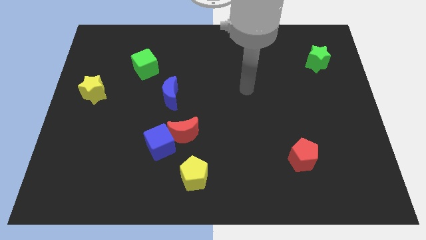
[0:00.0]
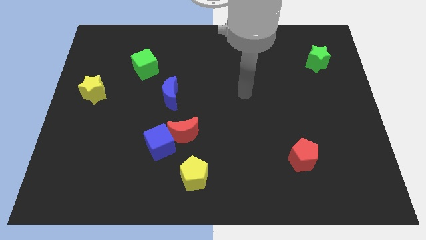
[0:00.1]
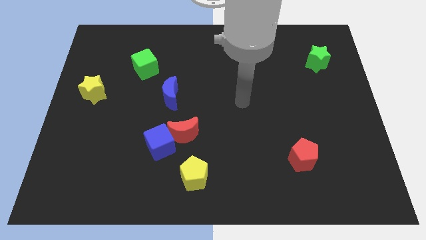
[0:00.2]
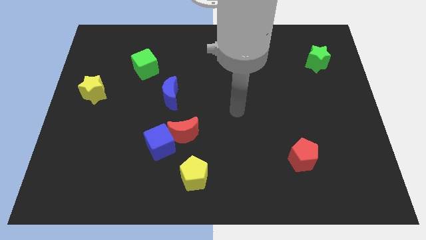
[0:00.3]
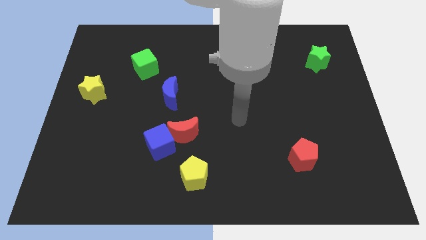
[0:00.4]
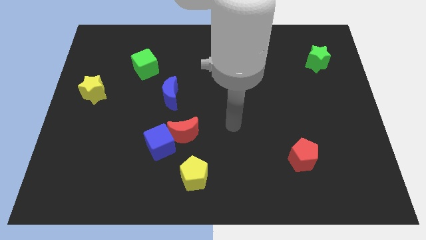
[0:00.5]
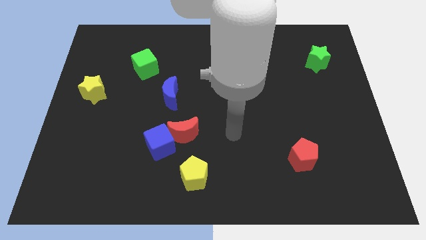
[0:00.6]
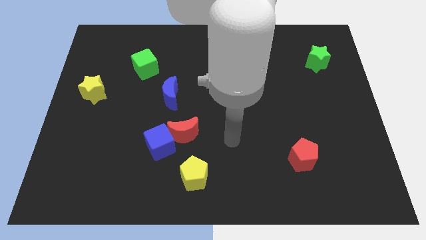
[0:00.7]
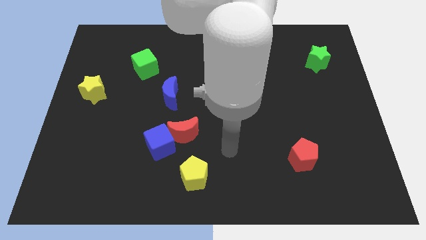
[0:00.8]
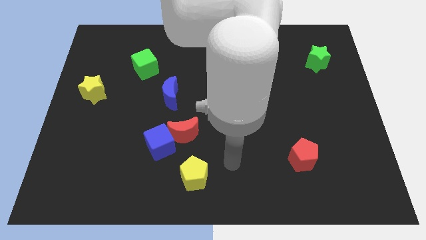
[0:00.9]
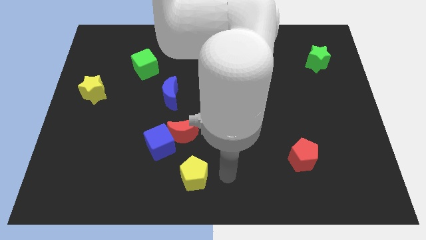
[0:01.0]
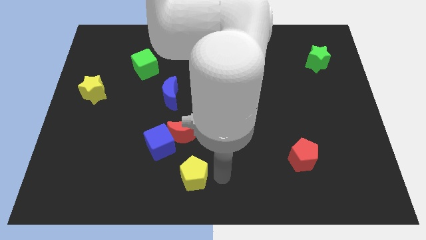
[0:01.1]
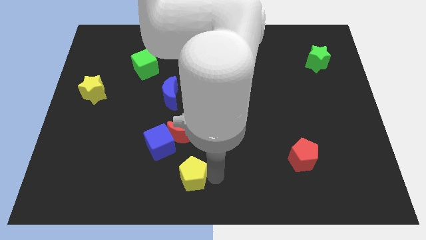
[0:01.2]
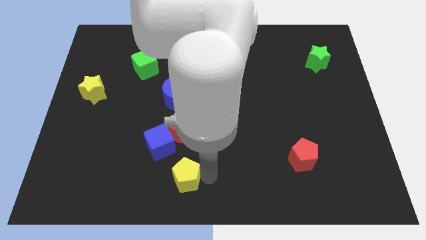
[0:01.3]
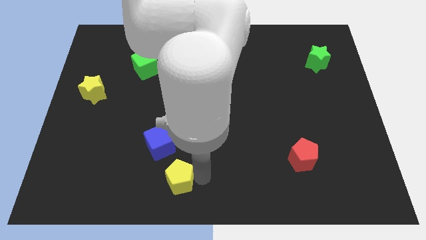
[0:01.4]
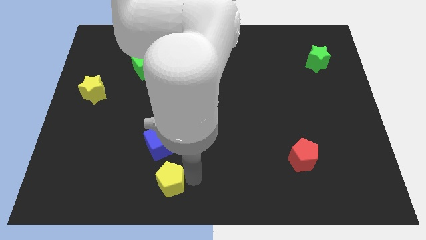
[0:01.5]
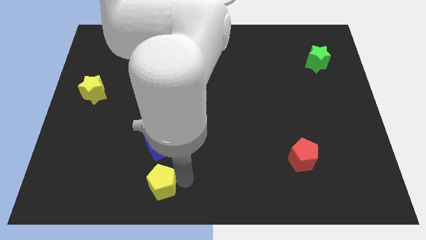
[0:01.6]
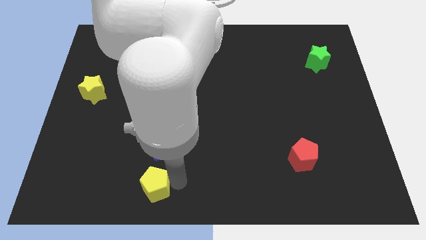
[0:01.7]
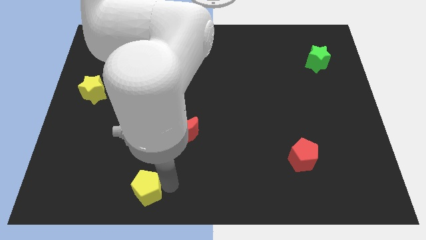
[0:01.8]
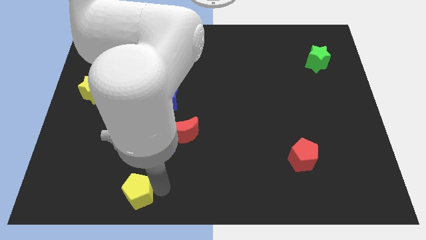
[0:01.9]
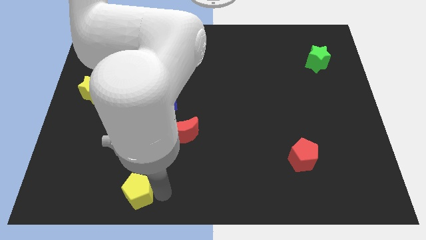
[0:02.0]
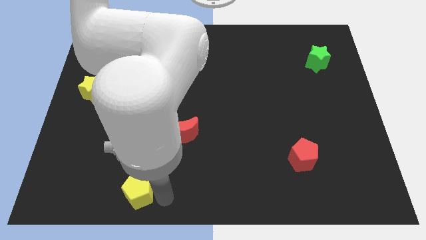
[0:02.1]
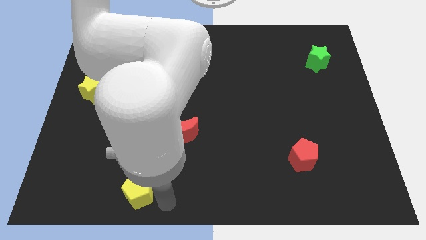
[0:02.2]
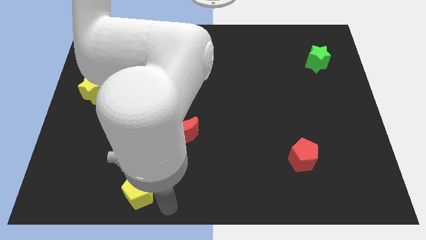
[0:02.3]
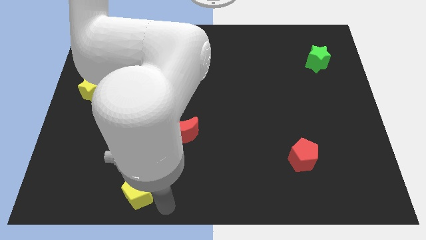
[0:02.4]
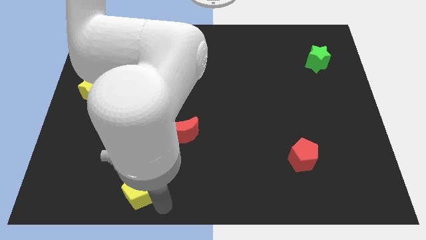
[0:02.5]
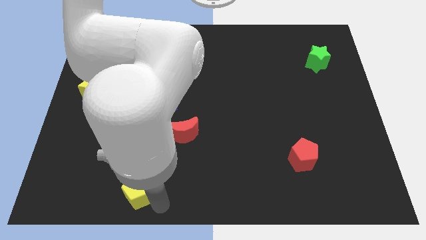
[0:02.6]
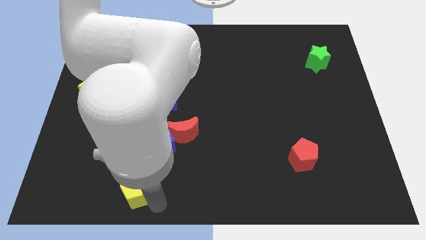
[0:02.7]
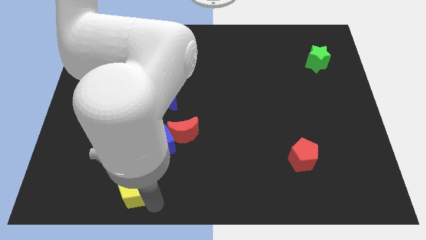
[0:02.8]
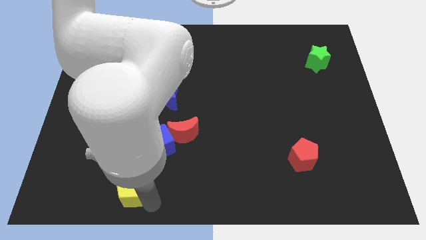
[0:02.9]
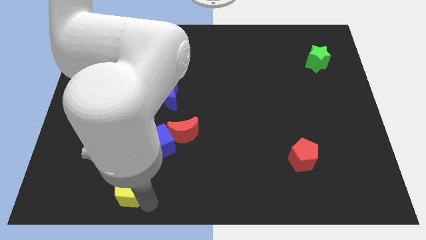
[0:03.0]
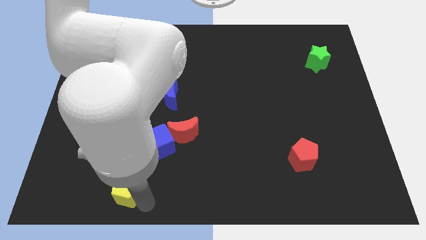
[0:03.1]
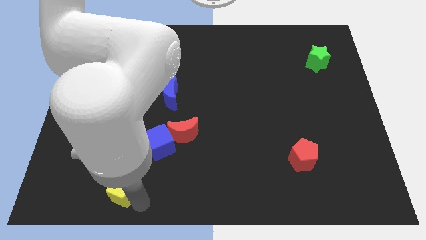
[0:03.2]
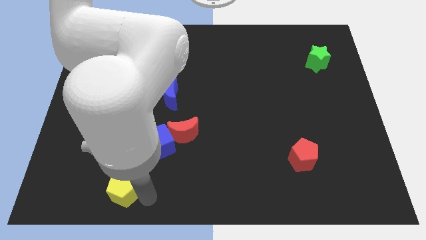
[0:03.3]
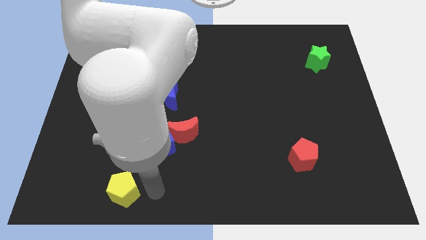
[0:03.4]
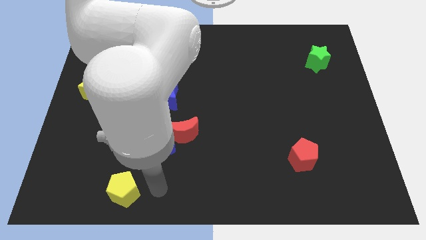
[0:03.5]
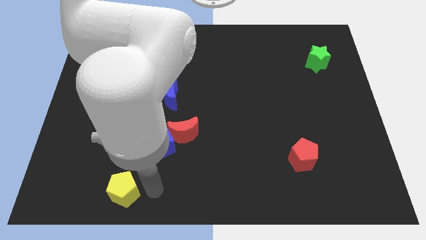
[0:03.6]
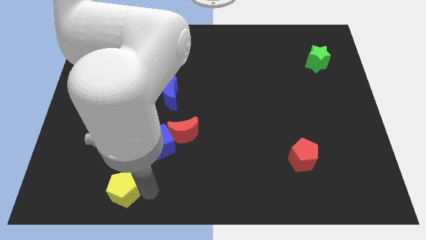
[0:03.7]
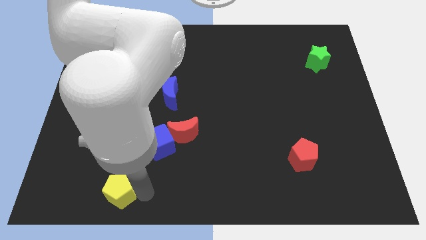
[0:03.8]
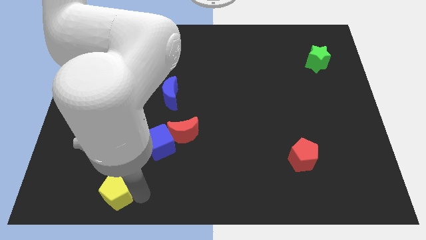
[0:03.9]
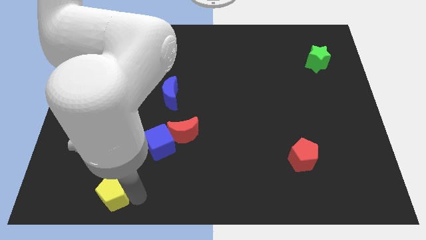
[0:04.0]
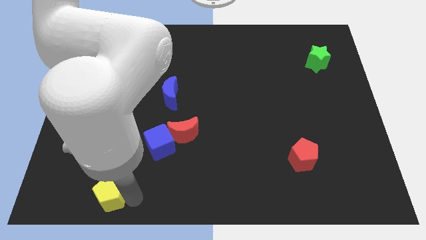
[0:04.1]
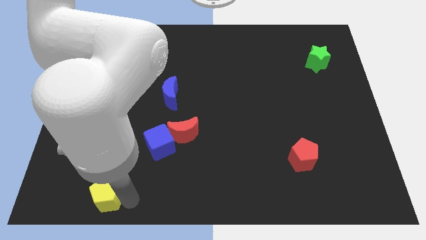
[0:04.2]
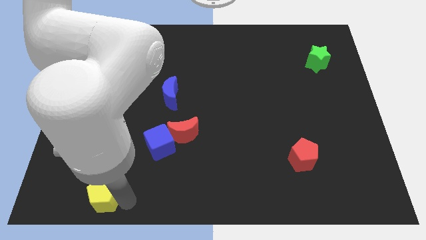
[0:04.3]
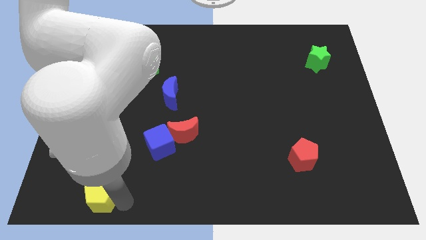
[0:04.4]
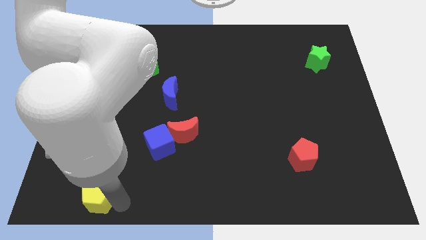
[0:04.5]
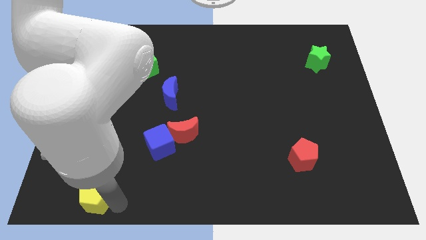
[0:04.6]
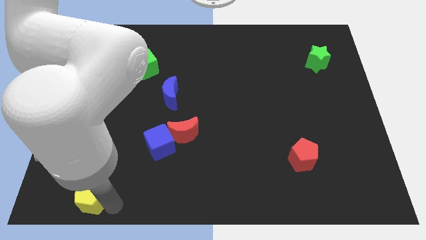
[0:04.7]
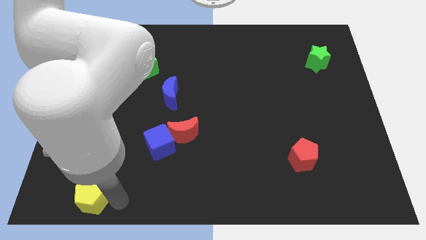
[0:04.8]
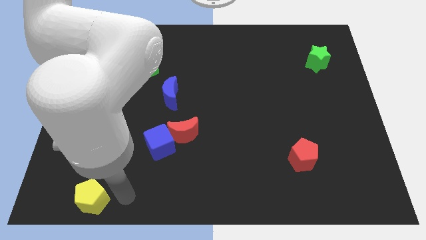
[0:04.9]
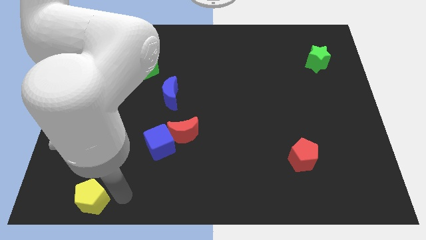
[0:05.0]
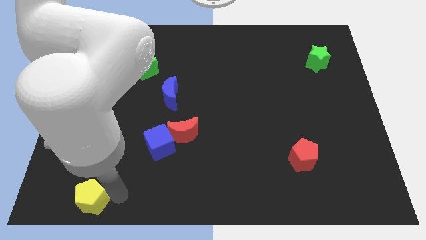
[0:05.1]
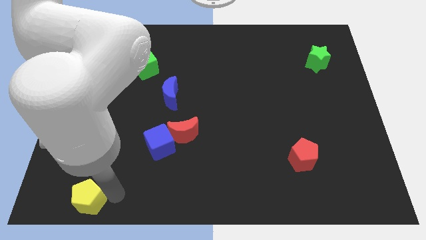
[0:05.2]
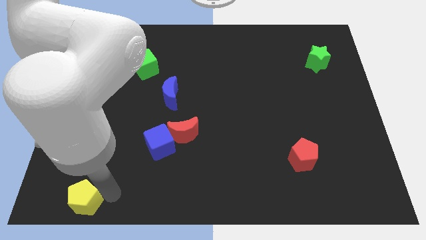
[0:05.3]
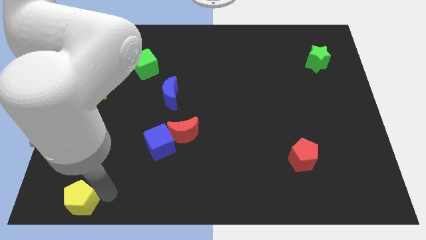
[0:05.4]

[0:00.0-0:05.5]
push the yellow pentagon to the bottom left of the board
